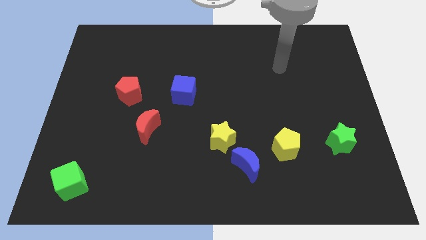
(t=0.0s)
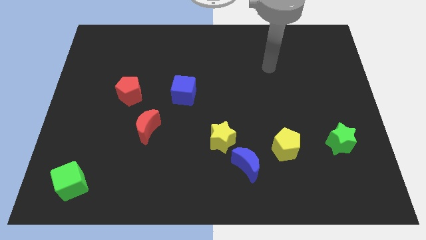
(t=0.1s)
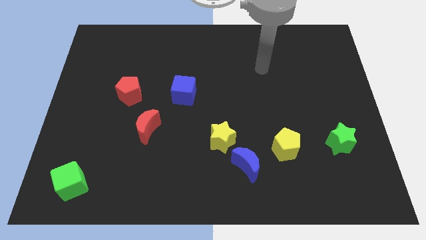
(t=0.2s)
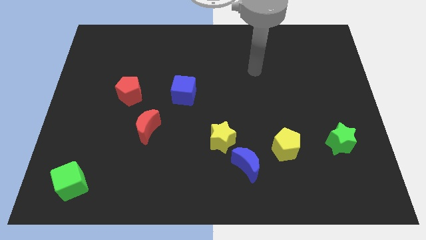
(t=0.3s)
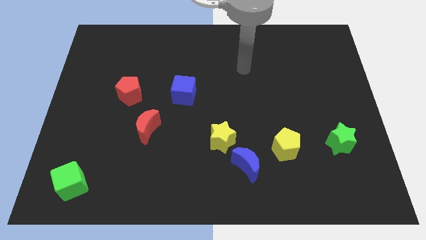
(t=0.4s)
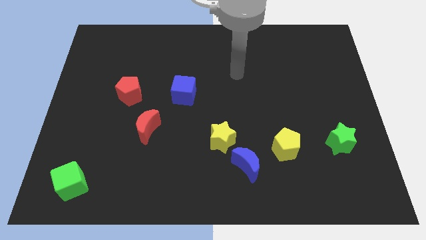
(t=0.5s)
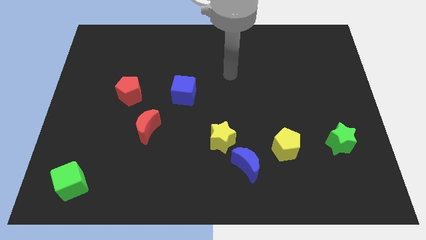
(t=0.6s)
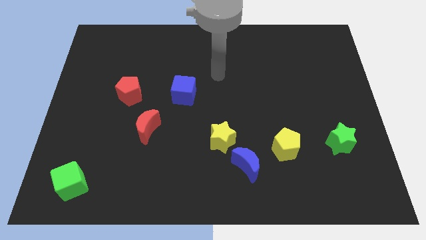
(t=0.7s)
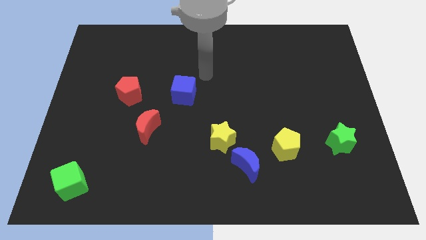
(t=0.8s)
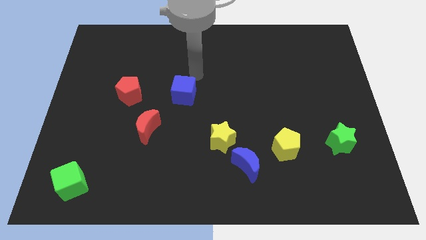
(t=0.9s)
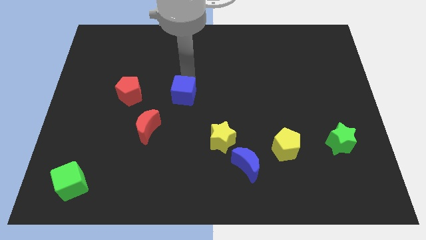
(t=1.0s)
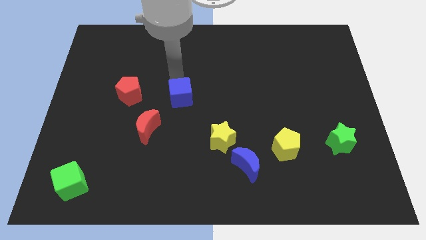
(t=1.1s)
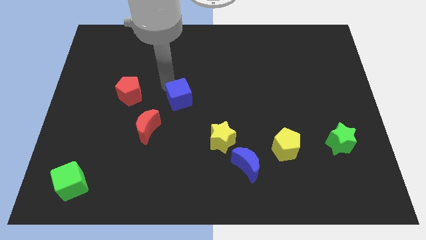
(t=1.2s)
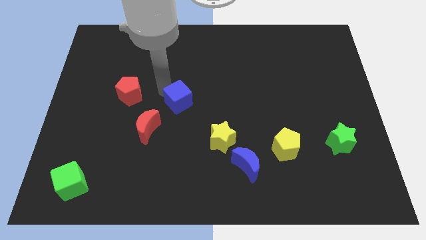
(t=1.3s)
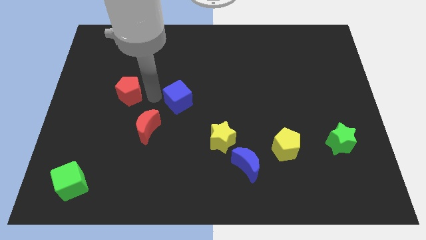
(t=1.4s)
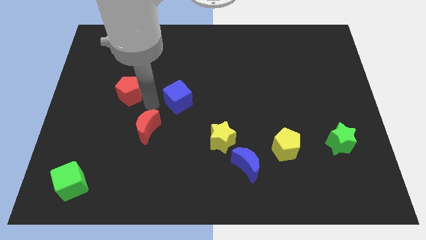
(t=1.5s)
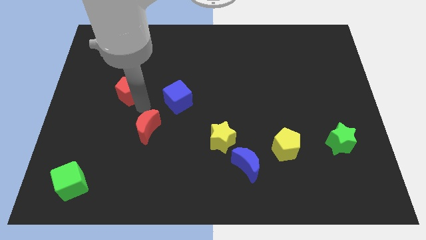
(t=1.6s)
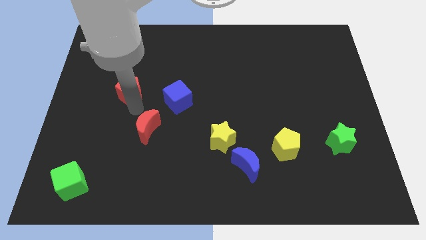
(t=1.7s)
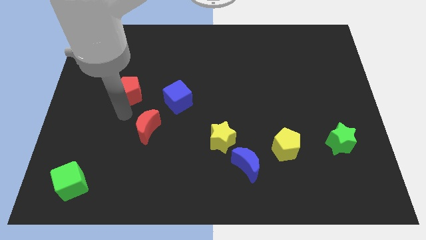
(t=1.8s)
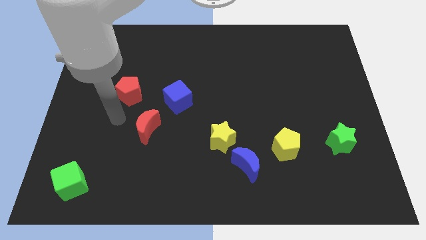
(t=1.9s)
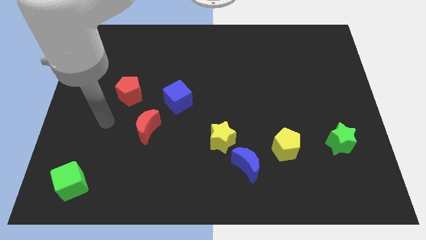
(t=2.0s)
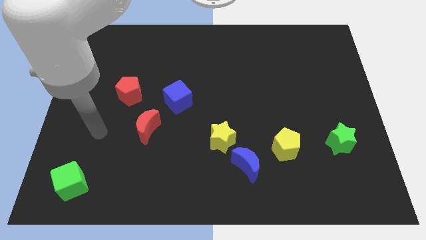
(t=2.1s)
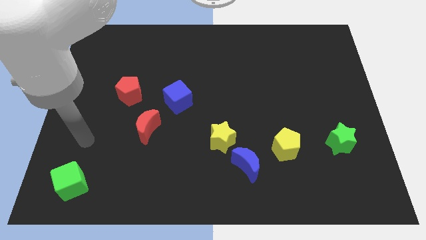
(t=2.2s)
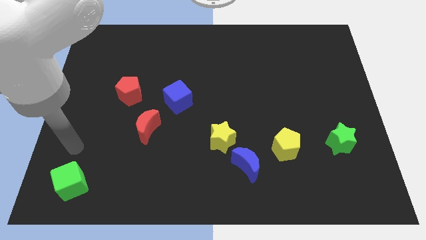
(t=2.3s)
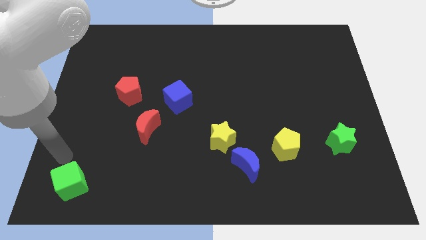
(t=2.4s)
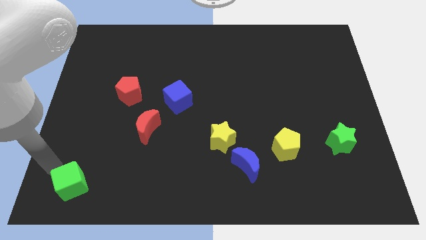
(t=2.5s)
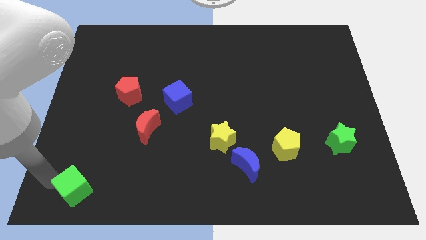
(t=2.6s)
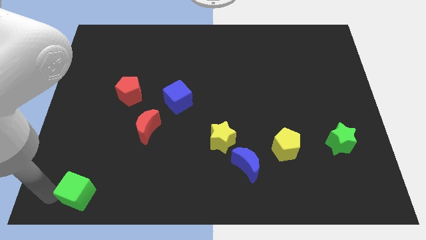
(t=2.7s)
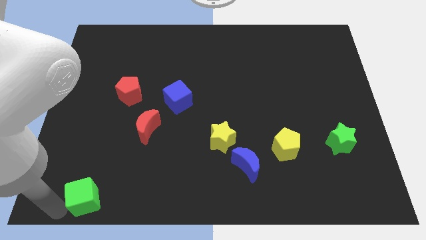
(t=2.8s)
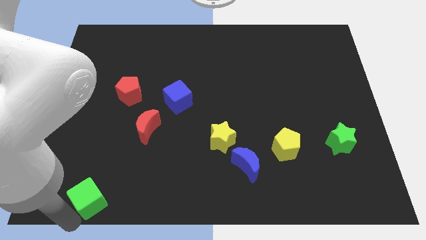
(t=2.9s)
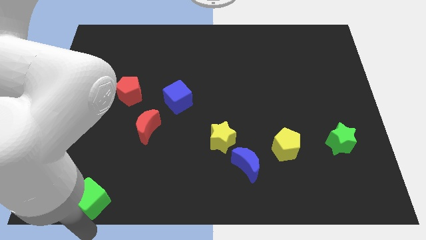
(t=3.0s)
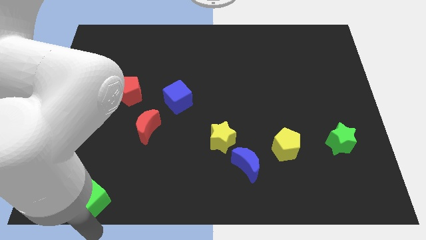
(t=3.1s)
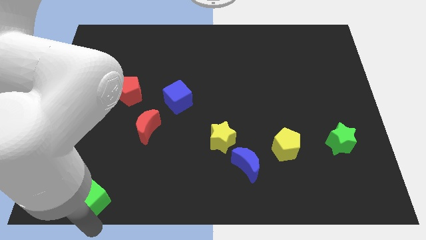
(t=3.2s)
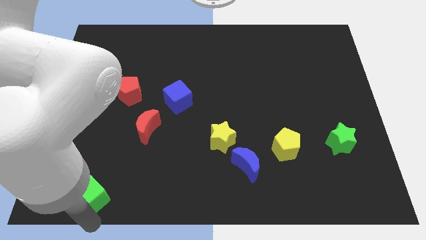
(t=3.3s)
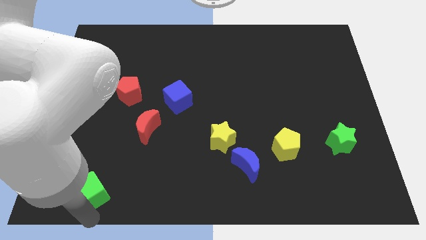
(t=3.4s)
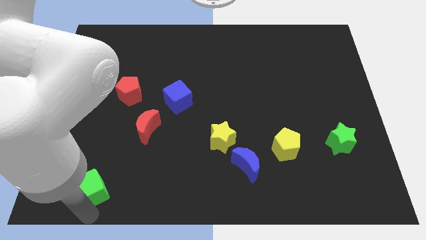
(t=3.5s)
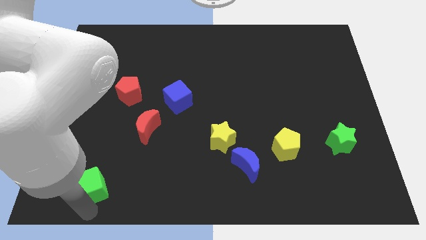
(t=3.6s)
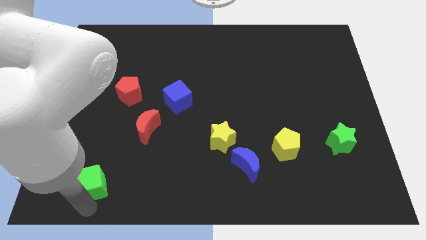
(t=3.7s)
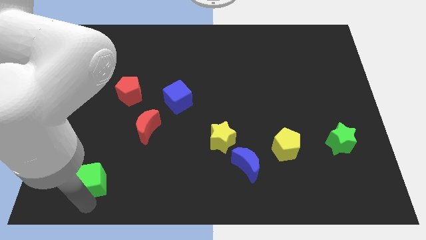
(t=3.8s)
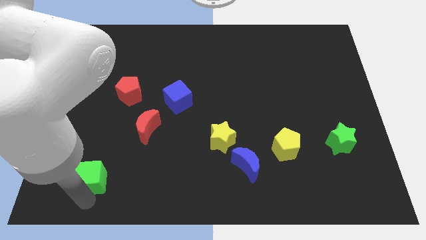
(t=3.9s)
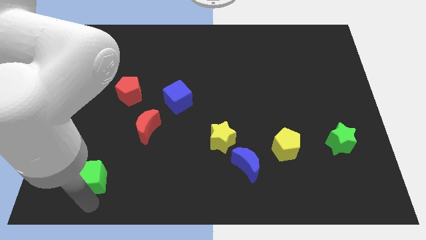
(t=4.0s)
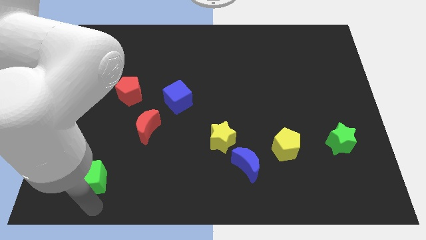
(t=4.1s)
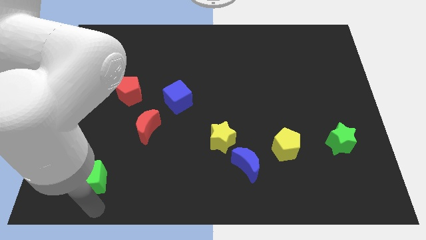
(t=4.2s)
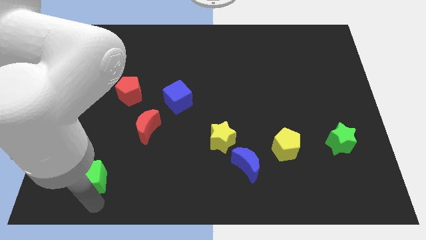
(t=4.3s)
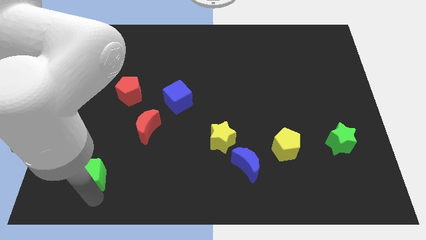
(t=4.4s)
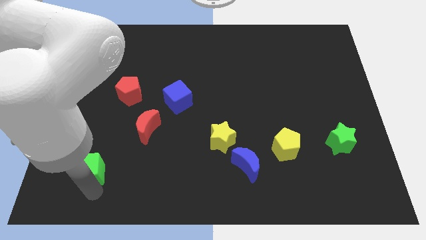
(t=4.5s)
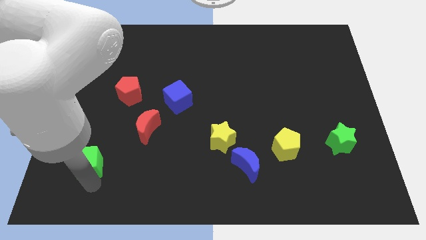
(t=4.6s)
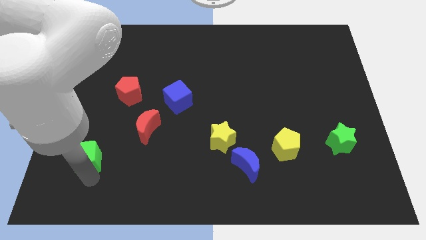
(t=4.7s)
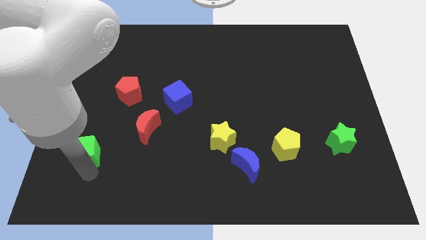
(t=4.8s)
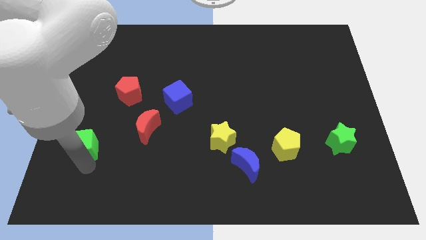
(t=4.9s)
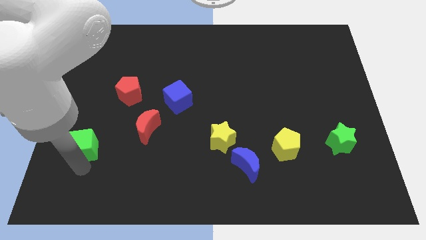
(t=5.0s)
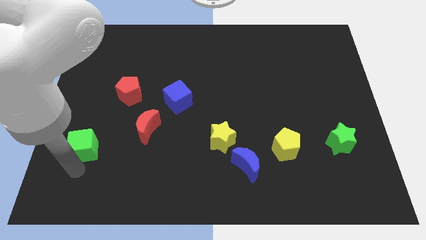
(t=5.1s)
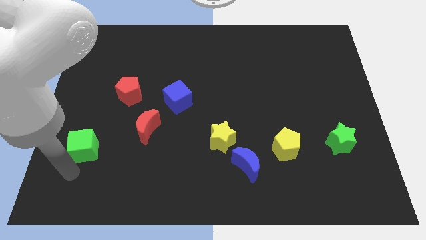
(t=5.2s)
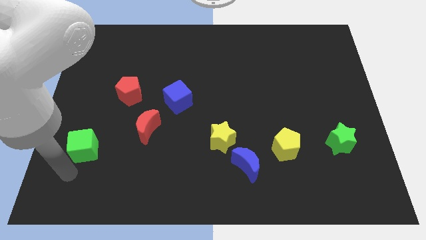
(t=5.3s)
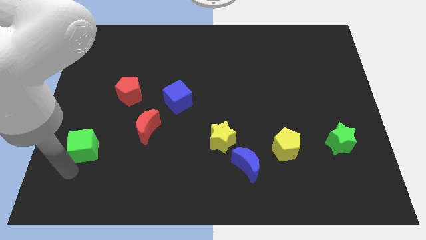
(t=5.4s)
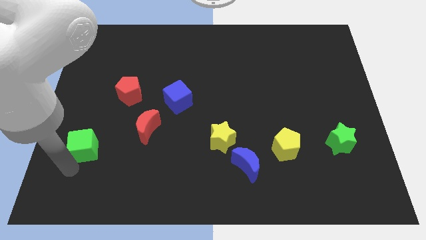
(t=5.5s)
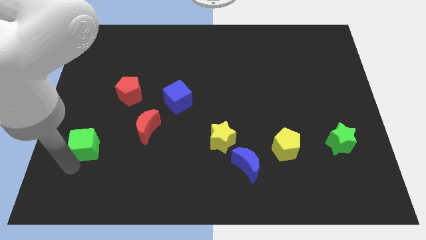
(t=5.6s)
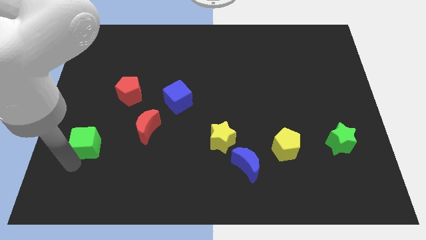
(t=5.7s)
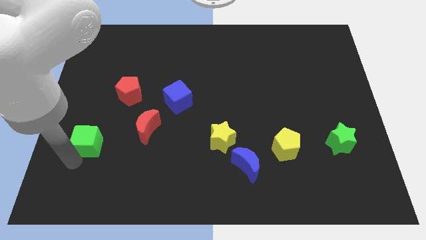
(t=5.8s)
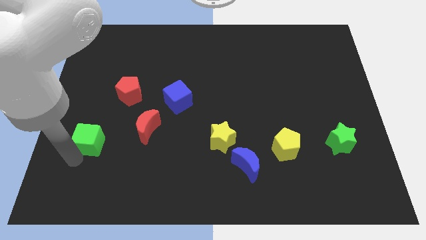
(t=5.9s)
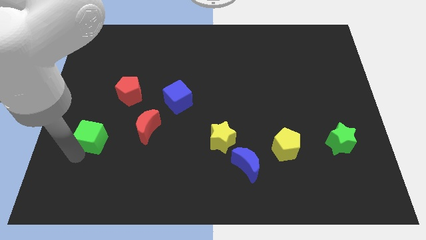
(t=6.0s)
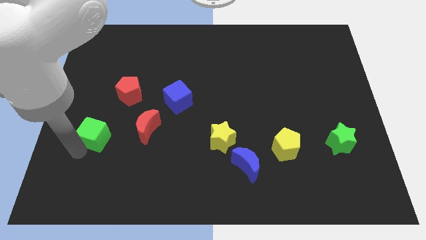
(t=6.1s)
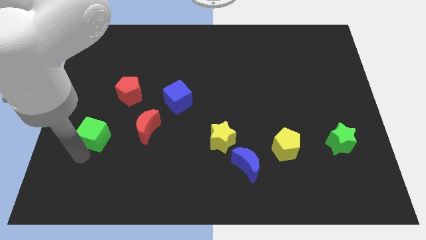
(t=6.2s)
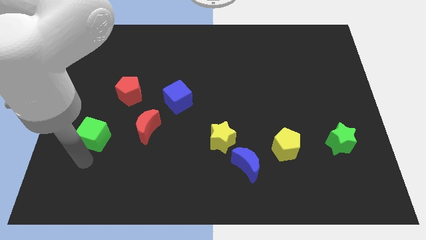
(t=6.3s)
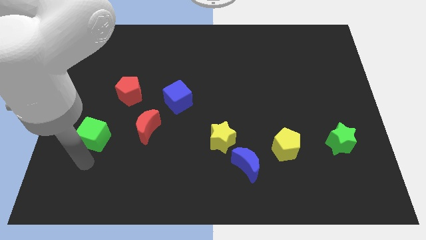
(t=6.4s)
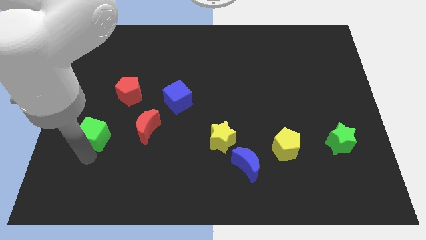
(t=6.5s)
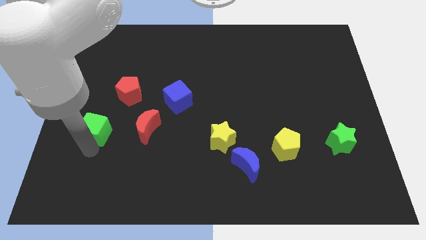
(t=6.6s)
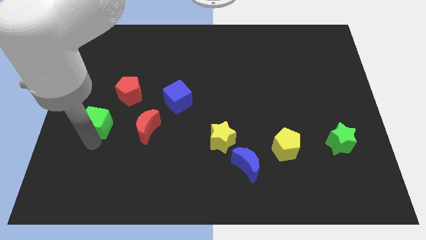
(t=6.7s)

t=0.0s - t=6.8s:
slide the green cube diagonally down and to the left of the red pentagon
